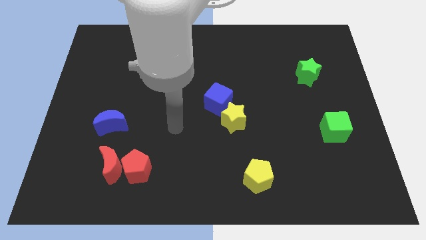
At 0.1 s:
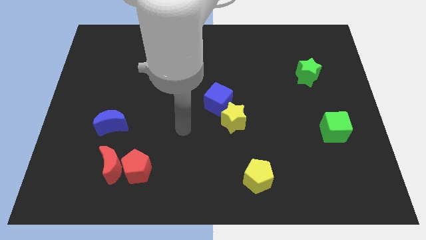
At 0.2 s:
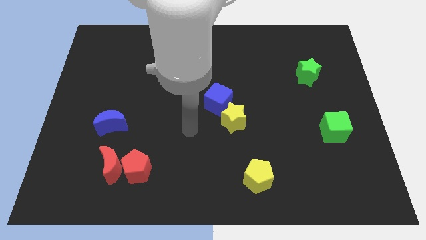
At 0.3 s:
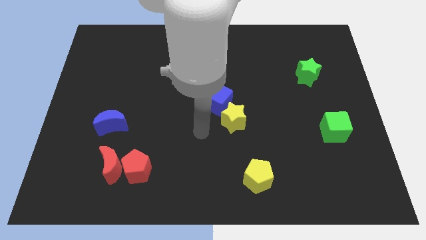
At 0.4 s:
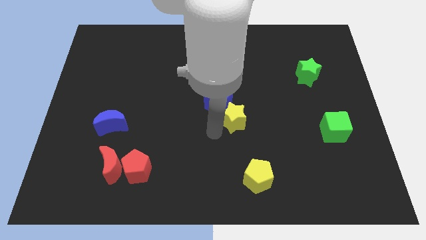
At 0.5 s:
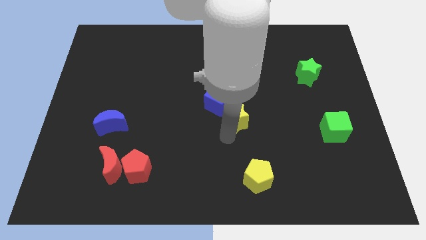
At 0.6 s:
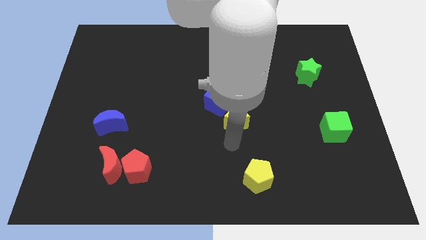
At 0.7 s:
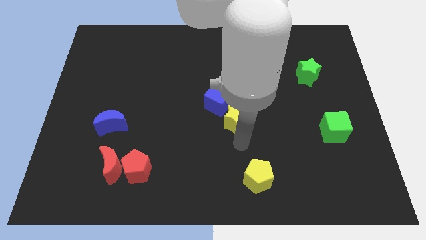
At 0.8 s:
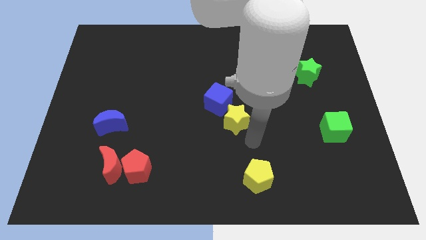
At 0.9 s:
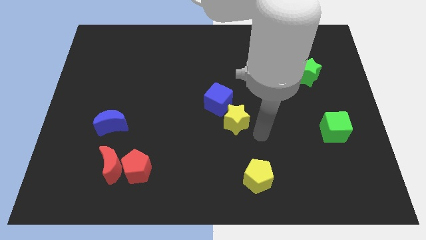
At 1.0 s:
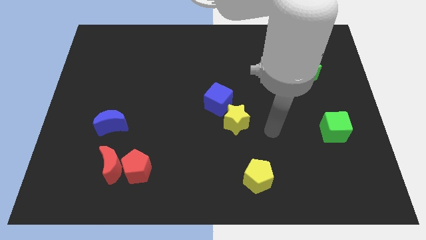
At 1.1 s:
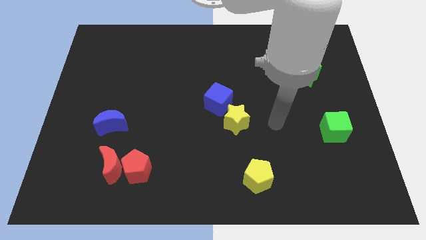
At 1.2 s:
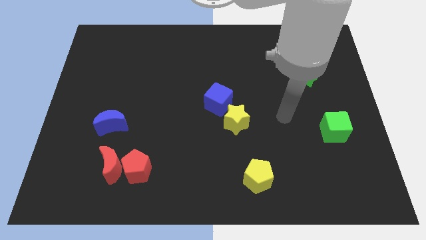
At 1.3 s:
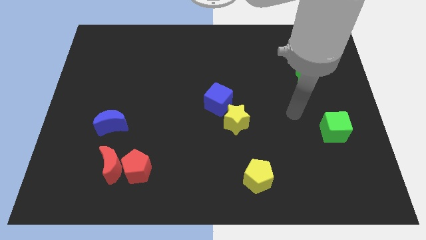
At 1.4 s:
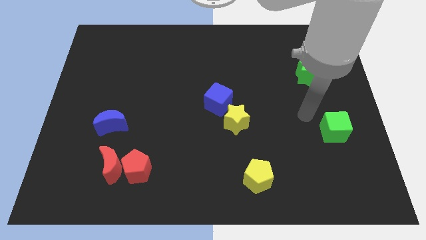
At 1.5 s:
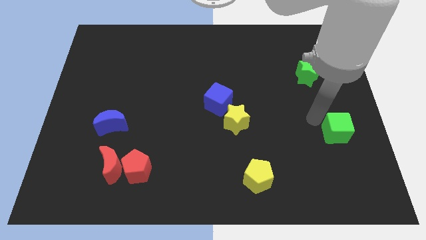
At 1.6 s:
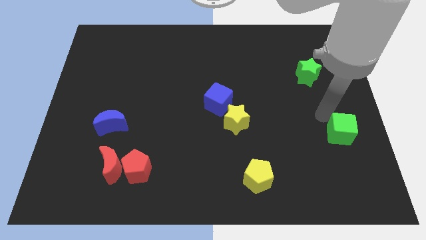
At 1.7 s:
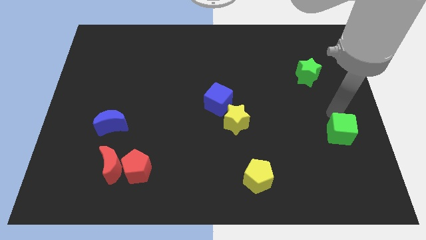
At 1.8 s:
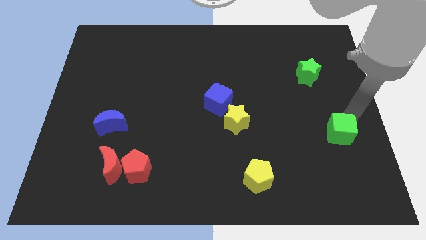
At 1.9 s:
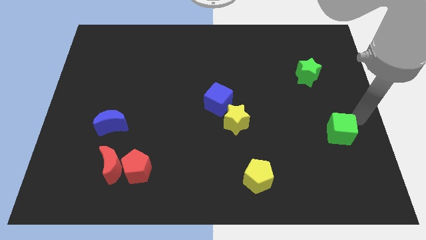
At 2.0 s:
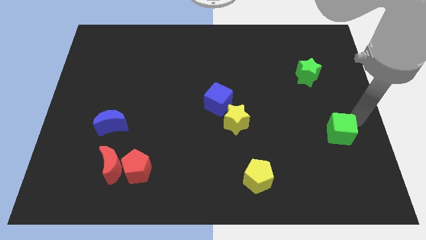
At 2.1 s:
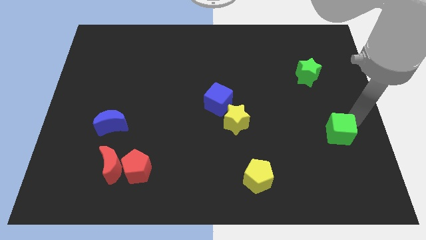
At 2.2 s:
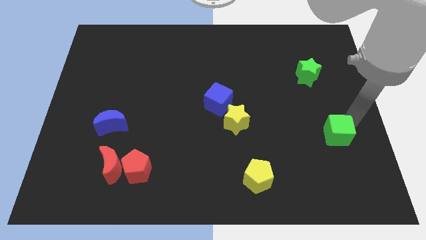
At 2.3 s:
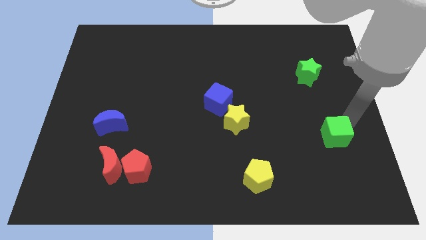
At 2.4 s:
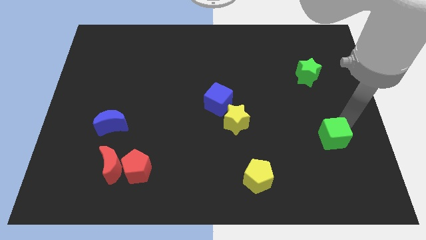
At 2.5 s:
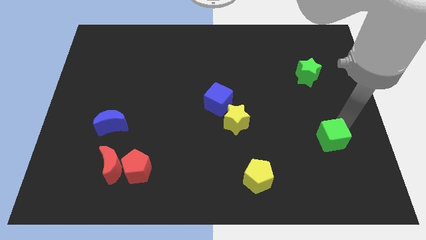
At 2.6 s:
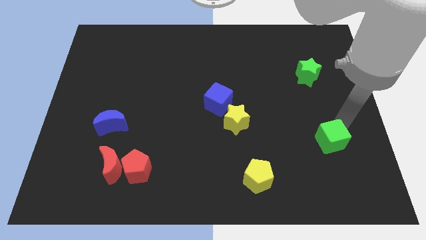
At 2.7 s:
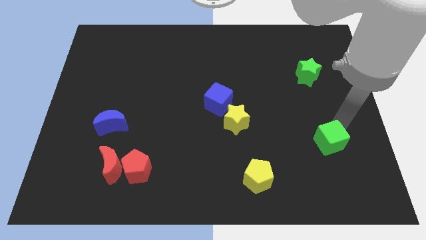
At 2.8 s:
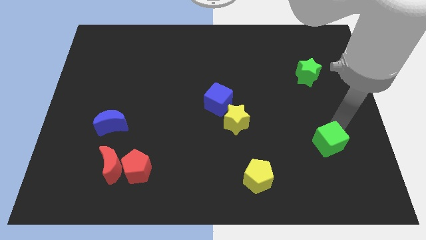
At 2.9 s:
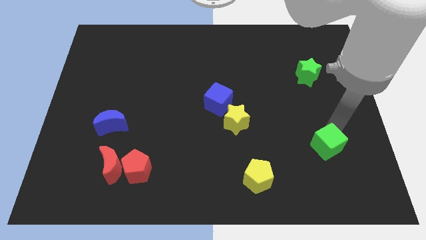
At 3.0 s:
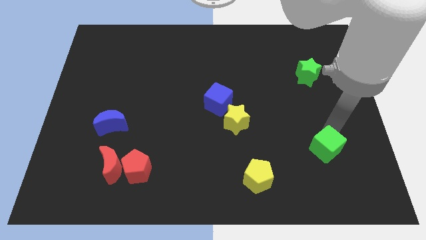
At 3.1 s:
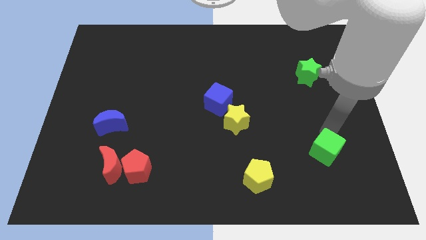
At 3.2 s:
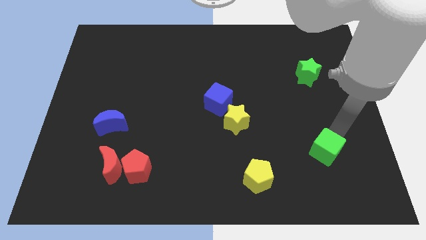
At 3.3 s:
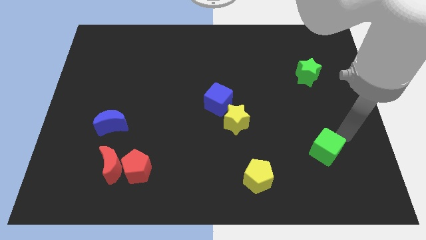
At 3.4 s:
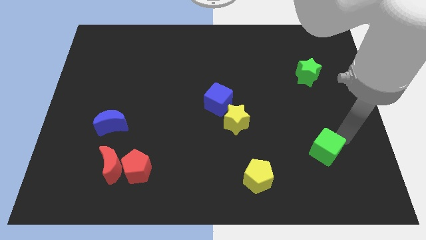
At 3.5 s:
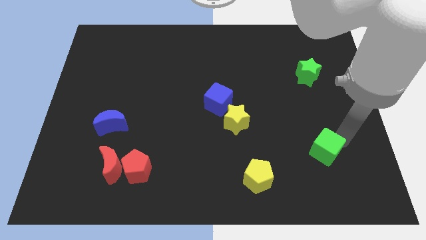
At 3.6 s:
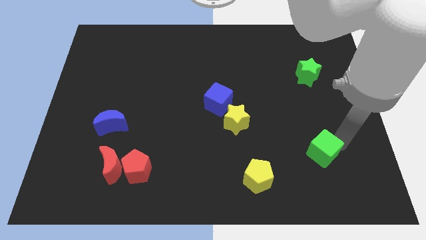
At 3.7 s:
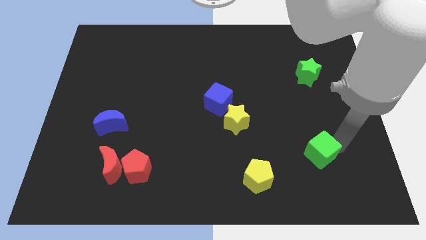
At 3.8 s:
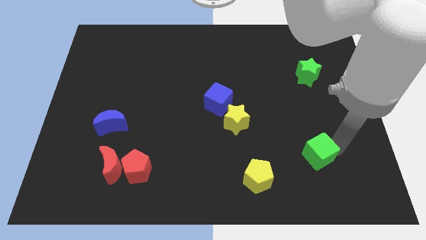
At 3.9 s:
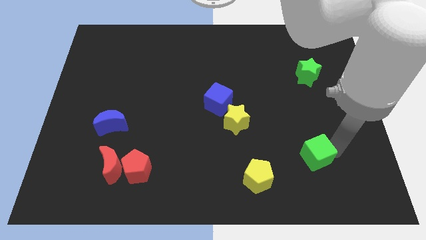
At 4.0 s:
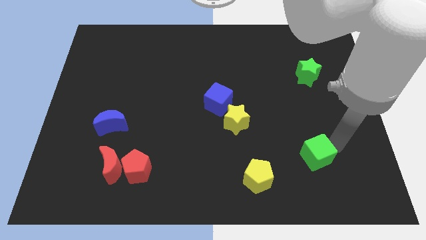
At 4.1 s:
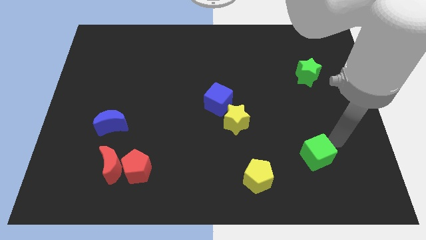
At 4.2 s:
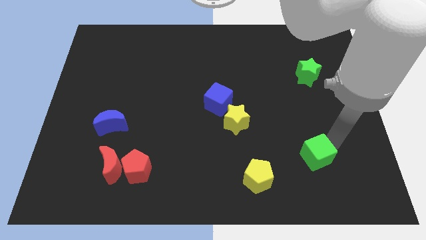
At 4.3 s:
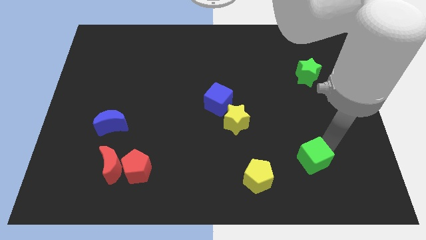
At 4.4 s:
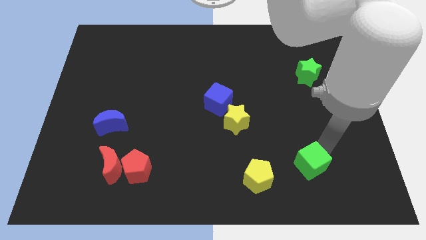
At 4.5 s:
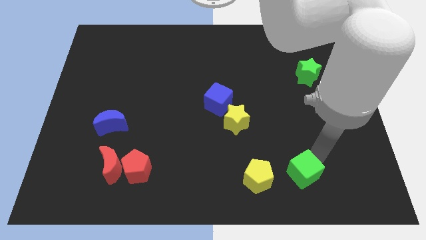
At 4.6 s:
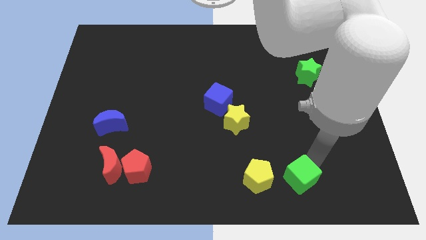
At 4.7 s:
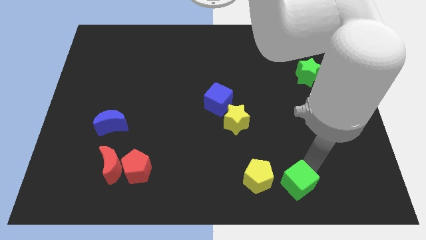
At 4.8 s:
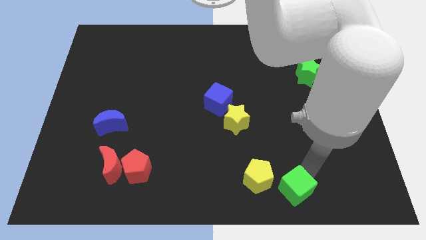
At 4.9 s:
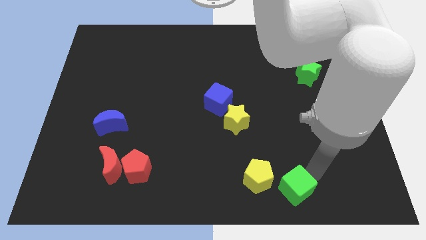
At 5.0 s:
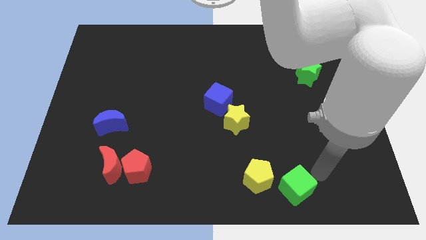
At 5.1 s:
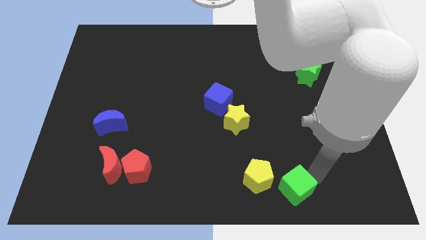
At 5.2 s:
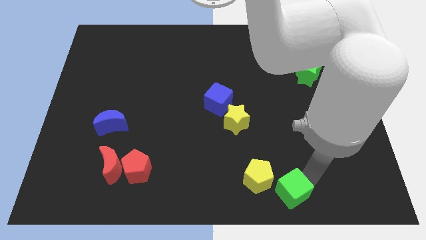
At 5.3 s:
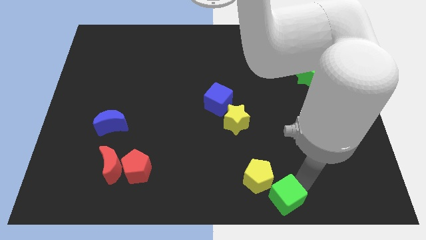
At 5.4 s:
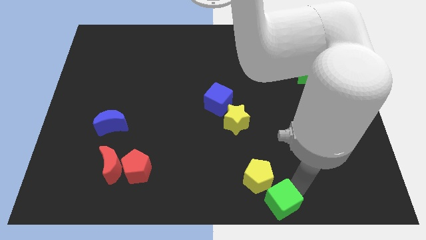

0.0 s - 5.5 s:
push the green cube to the bottom
